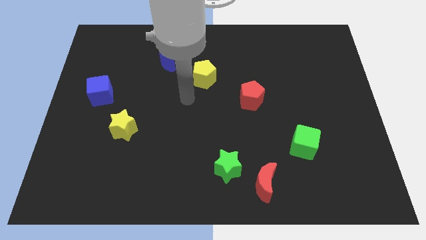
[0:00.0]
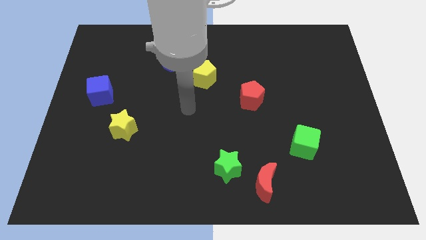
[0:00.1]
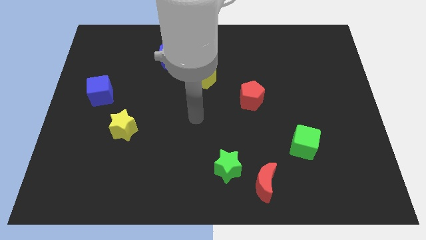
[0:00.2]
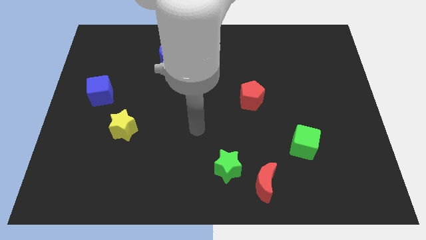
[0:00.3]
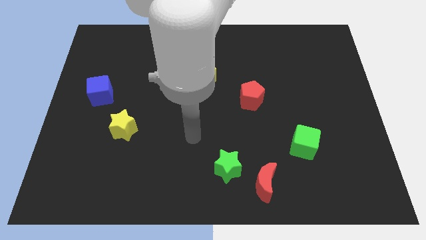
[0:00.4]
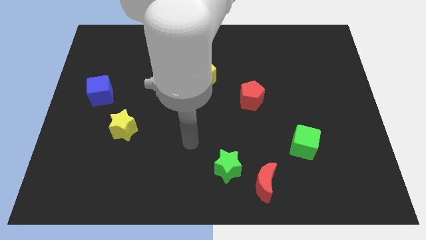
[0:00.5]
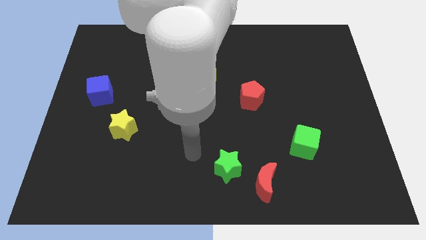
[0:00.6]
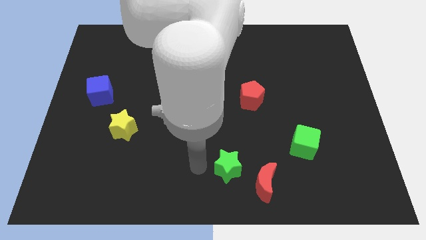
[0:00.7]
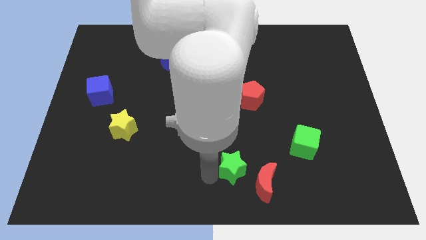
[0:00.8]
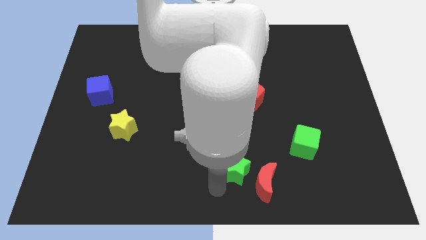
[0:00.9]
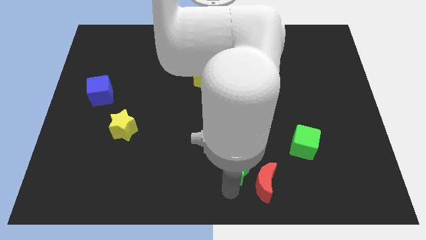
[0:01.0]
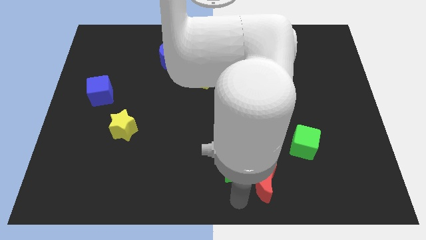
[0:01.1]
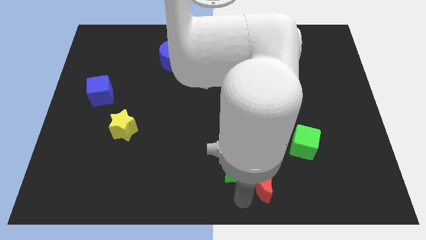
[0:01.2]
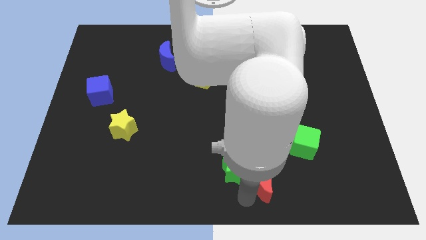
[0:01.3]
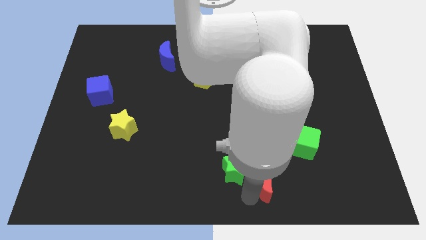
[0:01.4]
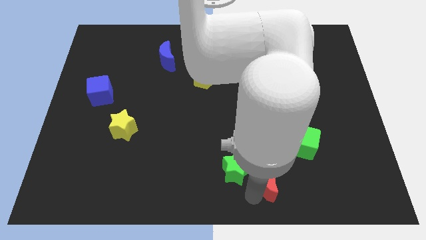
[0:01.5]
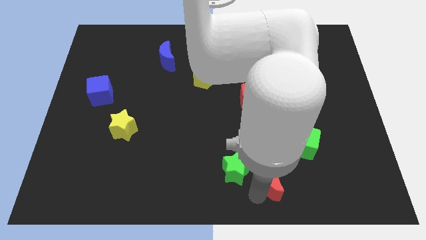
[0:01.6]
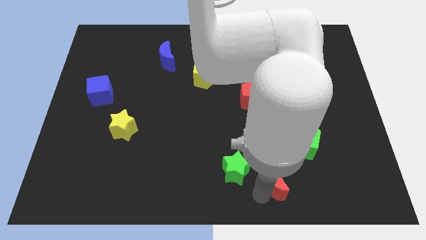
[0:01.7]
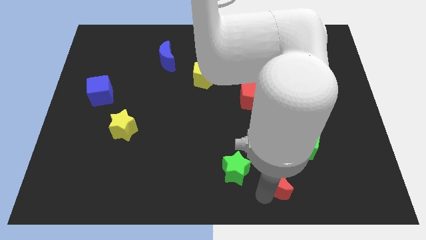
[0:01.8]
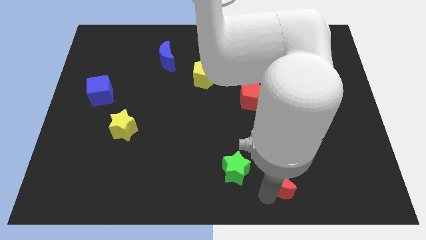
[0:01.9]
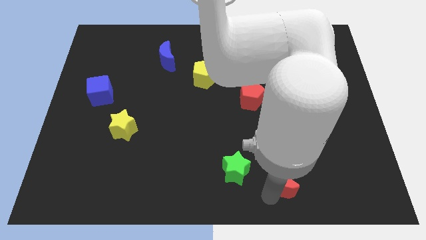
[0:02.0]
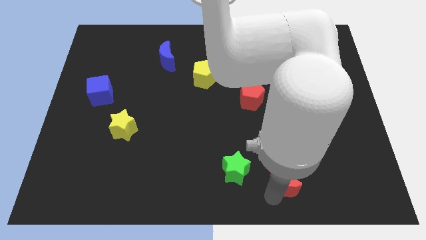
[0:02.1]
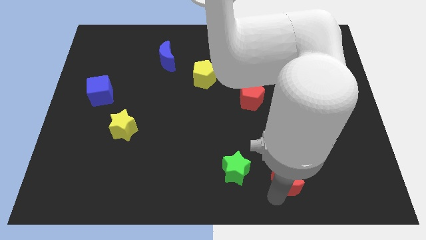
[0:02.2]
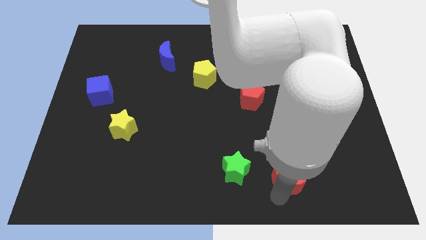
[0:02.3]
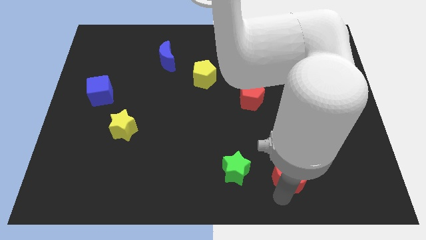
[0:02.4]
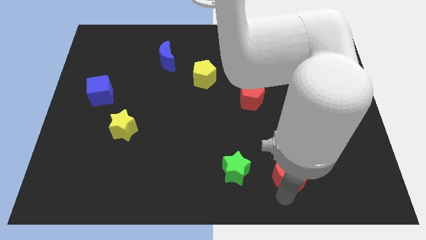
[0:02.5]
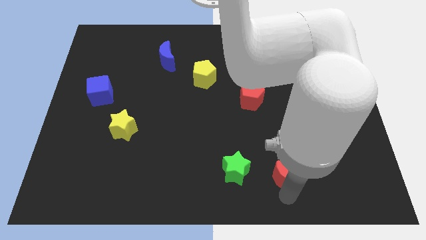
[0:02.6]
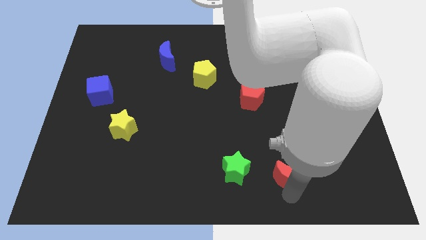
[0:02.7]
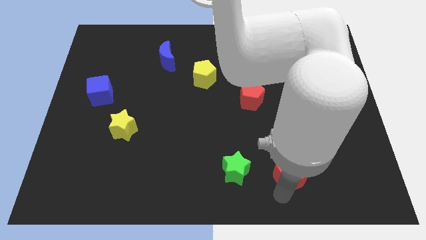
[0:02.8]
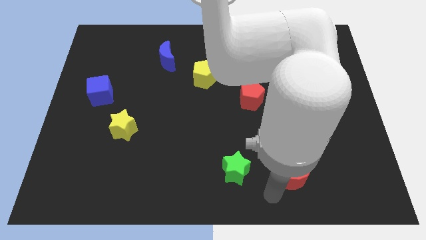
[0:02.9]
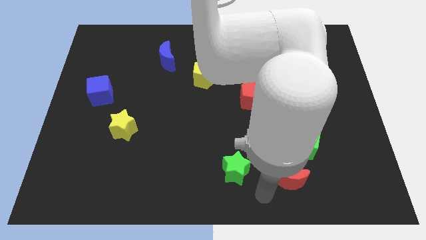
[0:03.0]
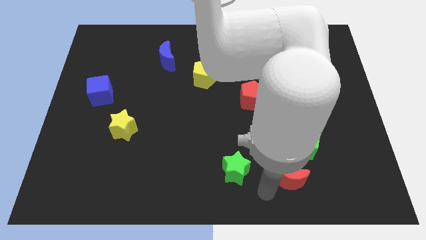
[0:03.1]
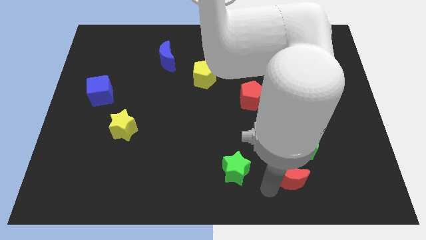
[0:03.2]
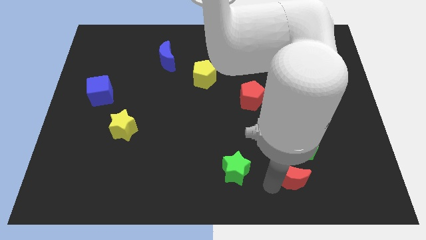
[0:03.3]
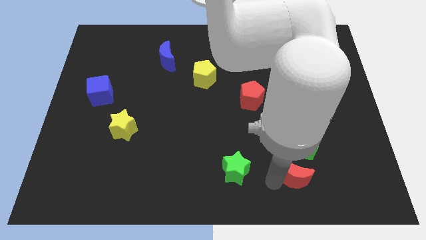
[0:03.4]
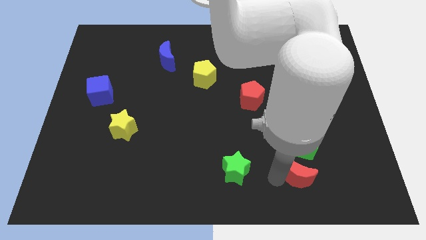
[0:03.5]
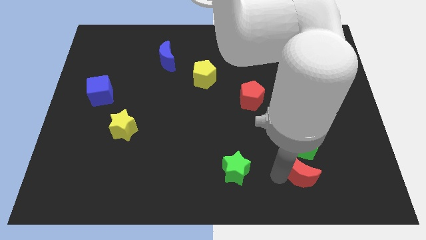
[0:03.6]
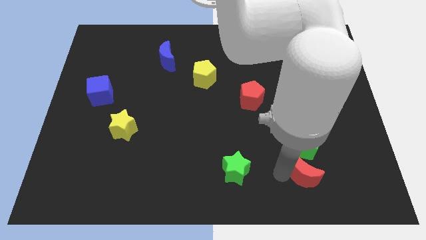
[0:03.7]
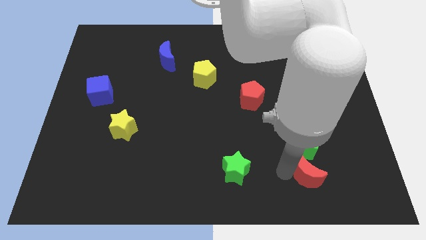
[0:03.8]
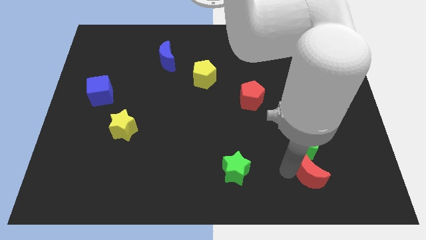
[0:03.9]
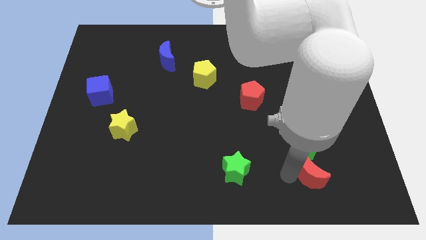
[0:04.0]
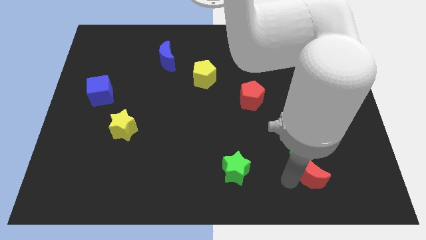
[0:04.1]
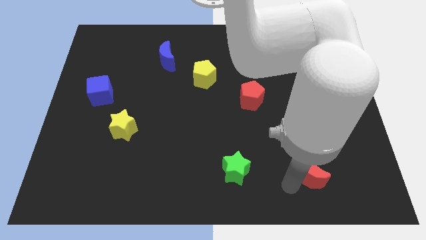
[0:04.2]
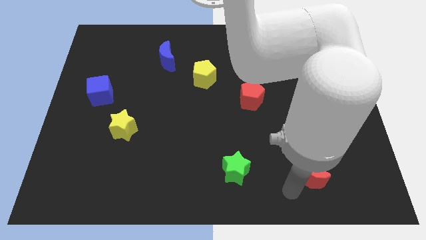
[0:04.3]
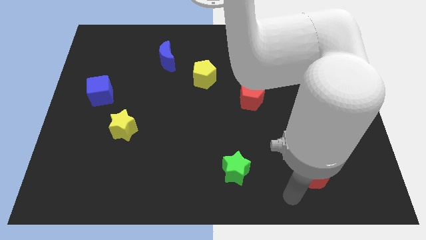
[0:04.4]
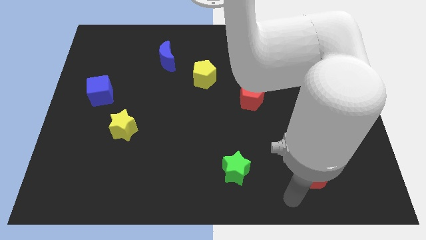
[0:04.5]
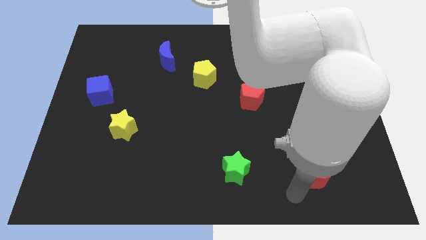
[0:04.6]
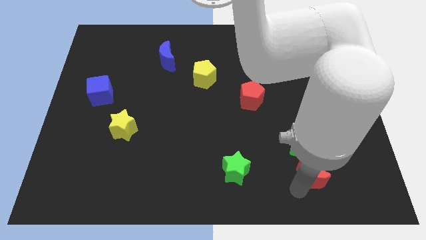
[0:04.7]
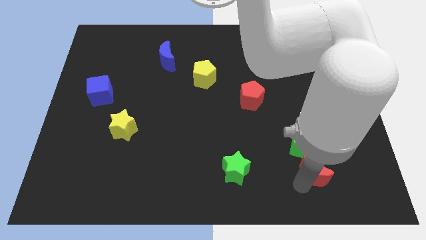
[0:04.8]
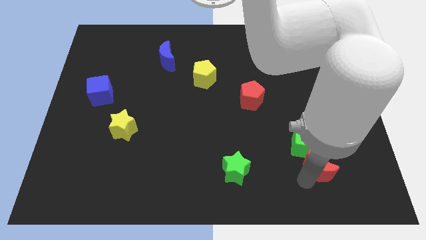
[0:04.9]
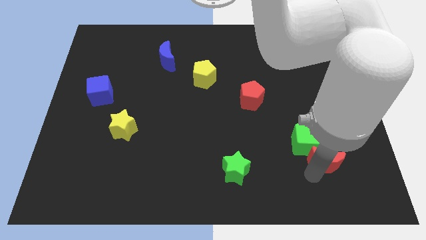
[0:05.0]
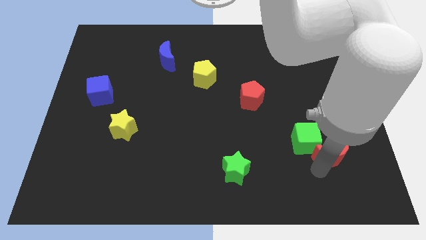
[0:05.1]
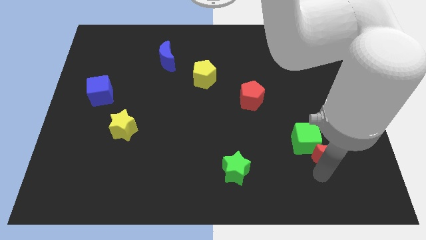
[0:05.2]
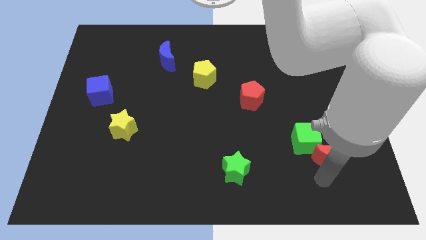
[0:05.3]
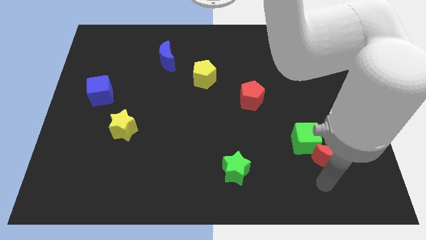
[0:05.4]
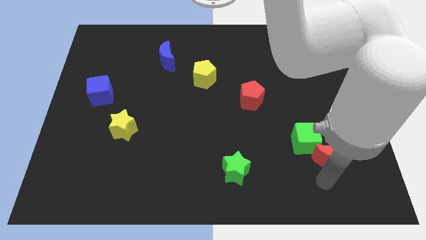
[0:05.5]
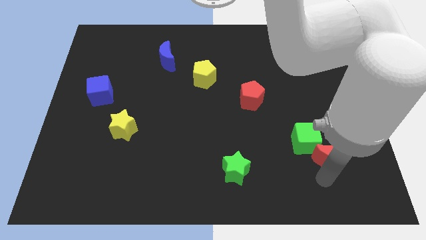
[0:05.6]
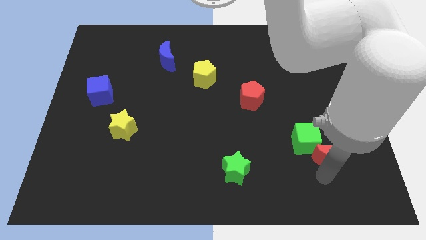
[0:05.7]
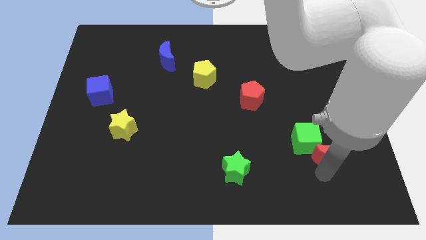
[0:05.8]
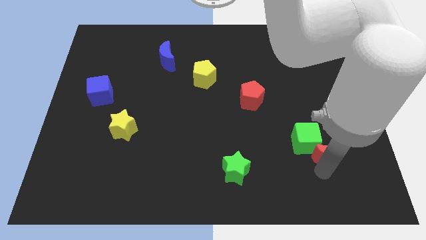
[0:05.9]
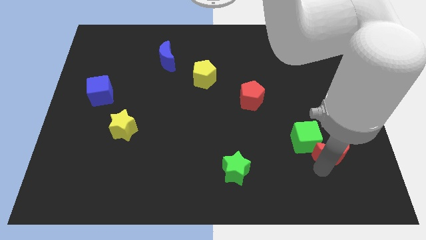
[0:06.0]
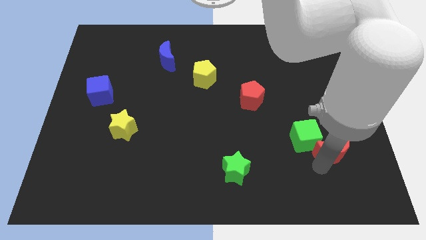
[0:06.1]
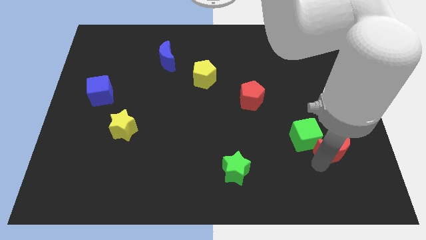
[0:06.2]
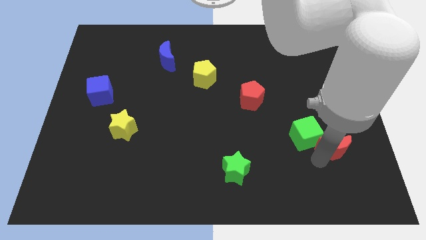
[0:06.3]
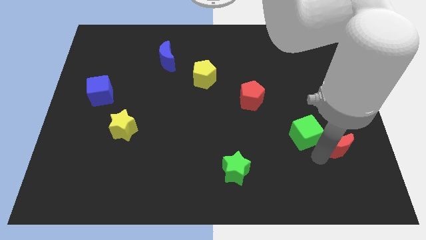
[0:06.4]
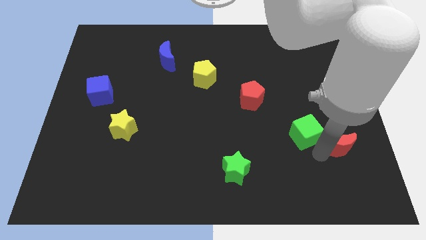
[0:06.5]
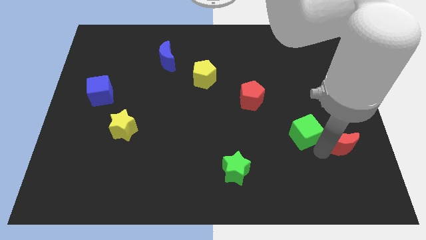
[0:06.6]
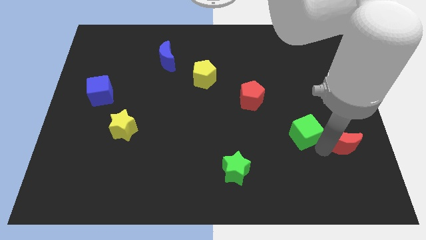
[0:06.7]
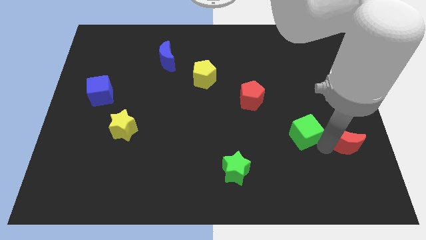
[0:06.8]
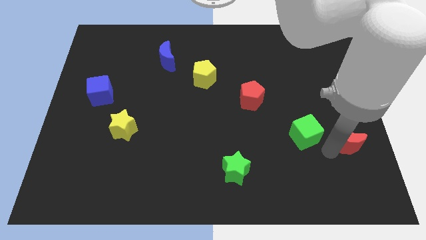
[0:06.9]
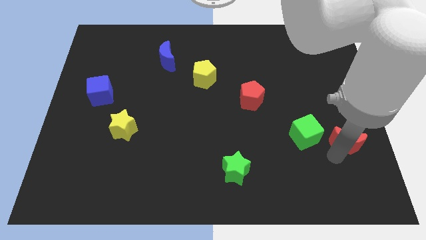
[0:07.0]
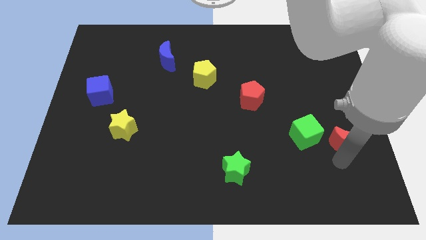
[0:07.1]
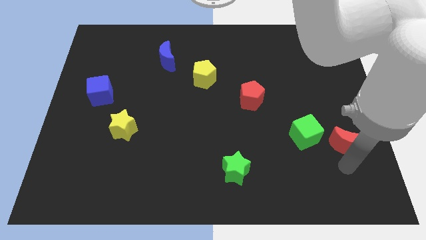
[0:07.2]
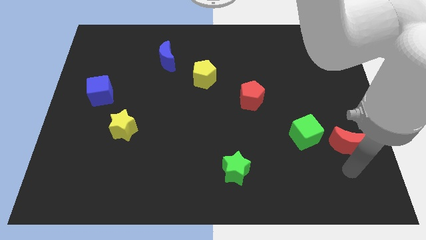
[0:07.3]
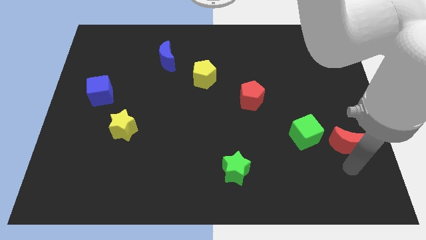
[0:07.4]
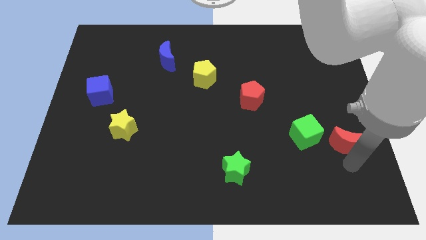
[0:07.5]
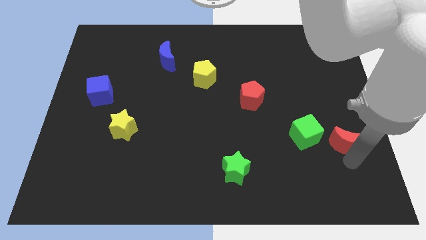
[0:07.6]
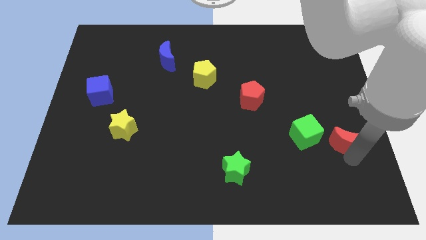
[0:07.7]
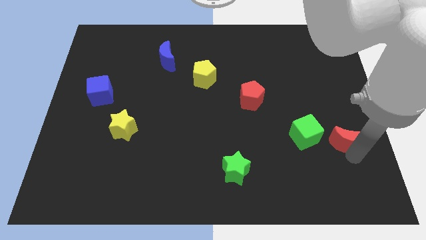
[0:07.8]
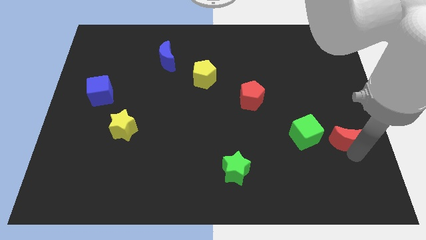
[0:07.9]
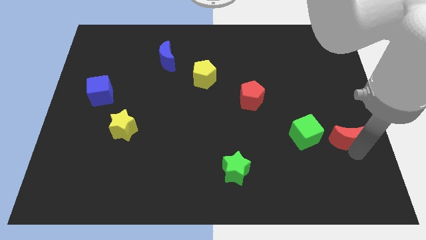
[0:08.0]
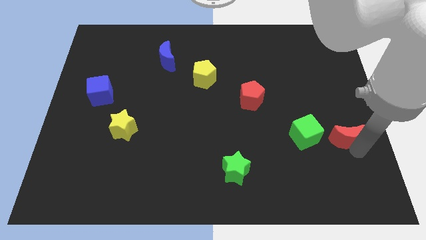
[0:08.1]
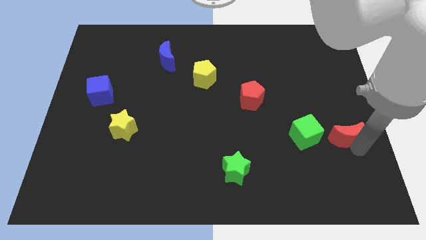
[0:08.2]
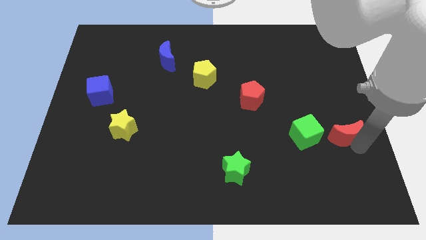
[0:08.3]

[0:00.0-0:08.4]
push the red moon to the center right
